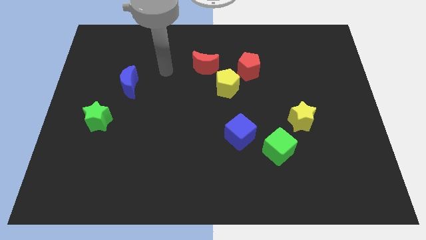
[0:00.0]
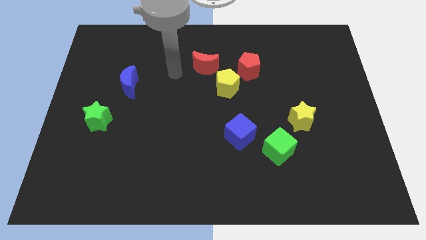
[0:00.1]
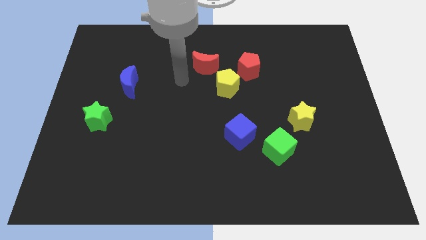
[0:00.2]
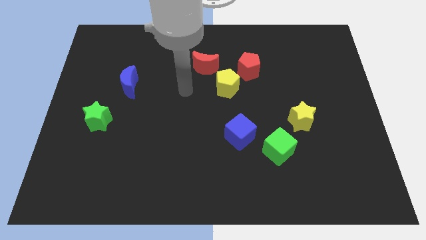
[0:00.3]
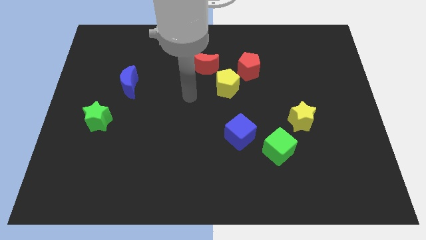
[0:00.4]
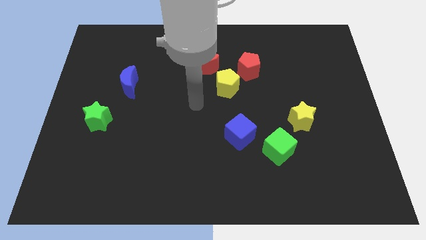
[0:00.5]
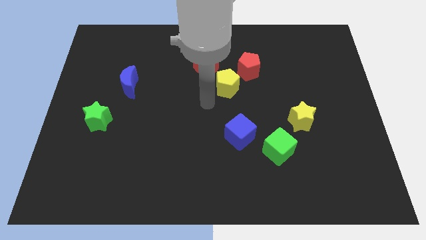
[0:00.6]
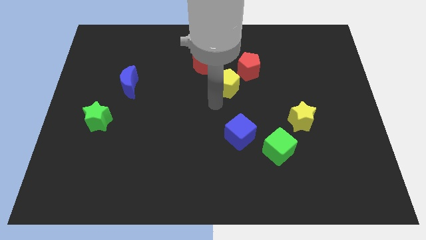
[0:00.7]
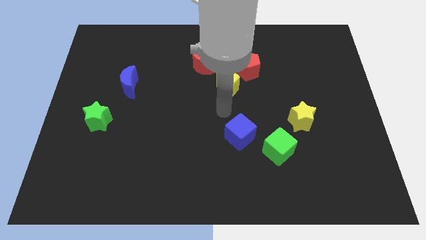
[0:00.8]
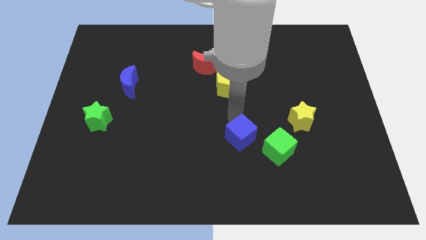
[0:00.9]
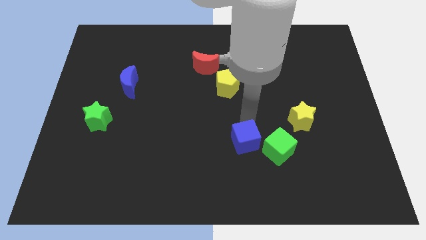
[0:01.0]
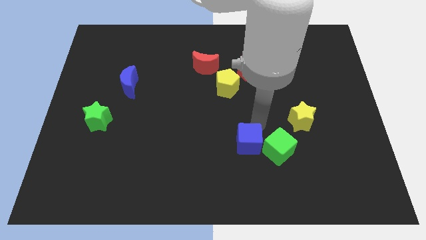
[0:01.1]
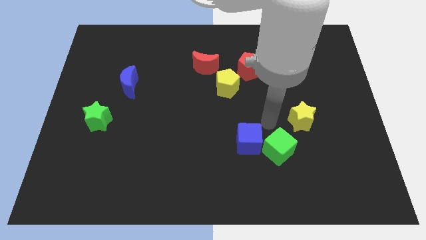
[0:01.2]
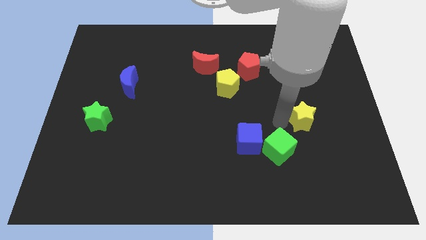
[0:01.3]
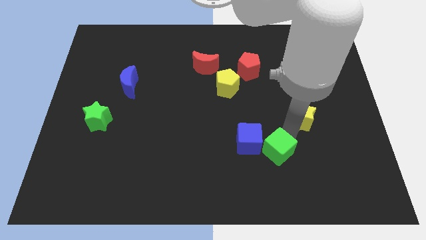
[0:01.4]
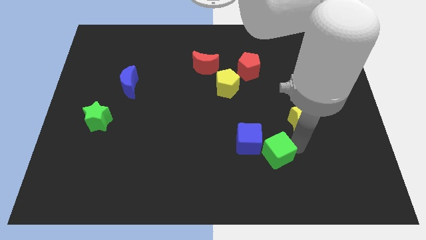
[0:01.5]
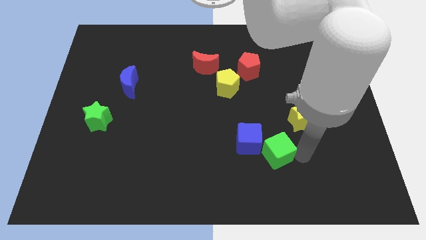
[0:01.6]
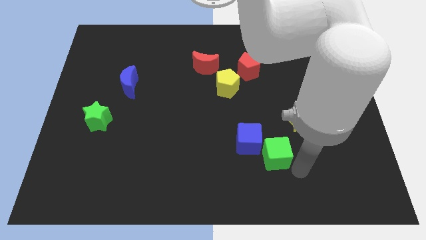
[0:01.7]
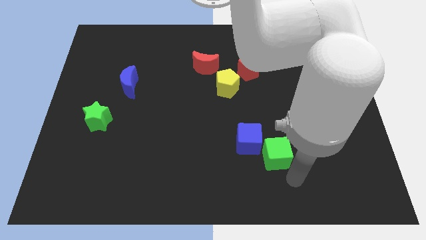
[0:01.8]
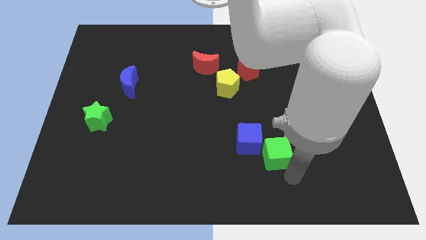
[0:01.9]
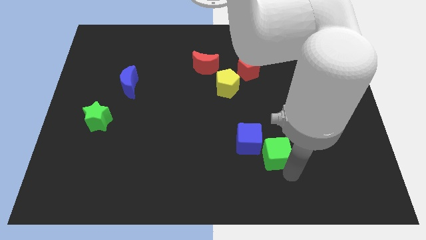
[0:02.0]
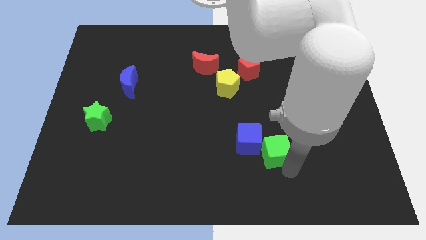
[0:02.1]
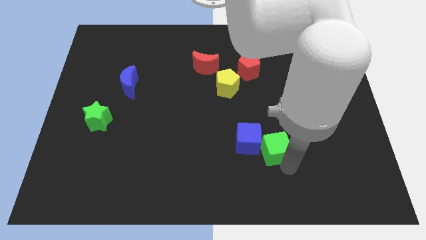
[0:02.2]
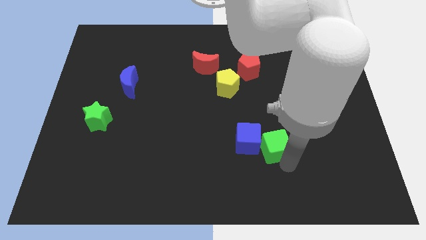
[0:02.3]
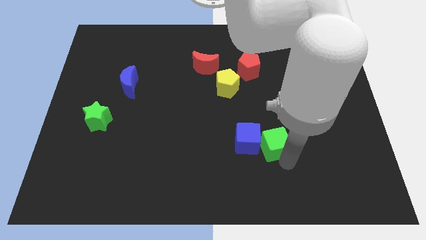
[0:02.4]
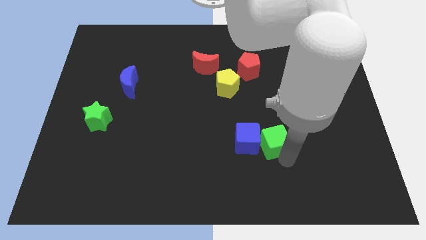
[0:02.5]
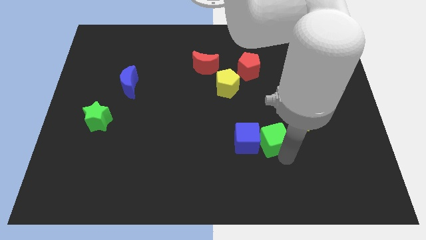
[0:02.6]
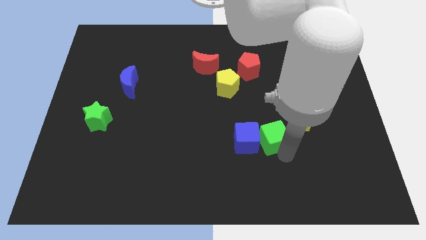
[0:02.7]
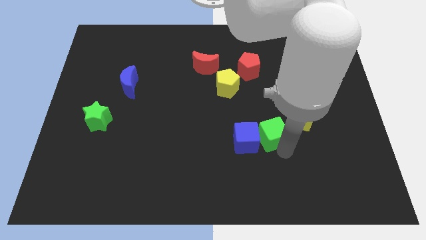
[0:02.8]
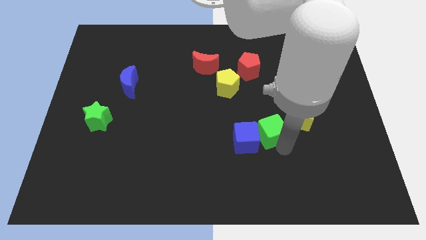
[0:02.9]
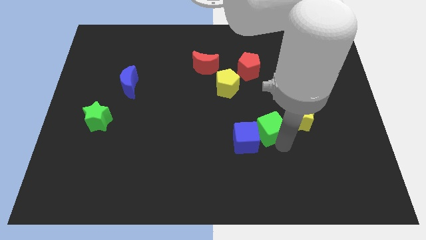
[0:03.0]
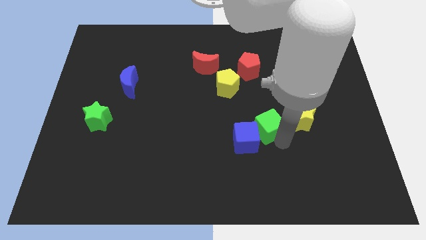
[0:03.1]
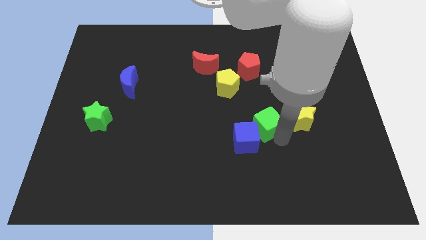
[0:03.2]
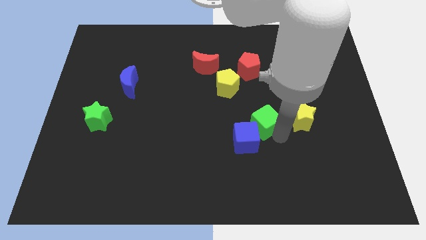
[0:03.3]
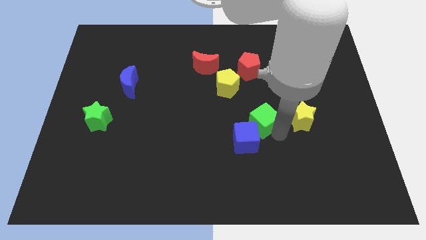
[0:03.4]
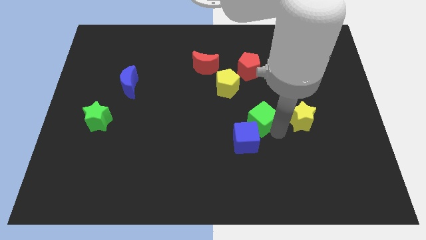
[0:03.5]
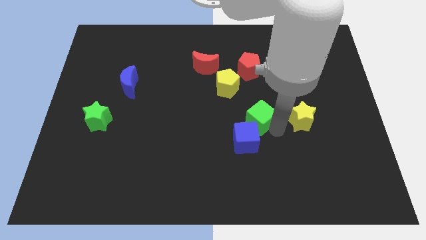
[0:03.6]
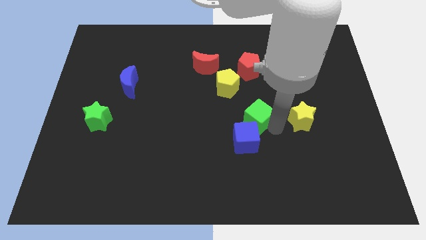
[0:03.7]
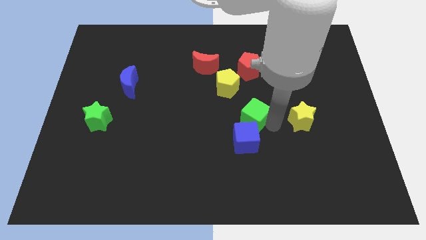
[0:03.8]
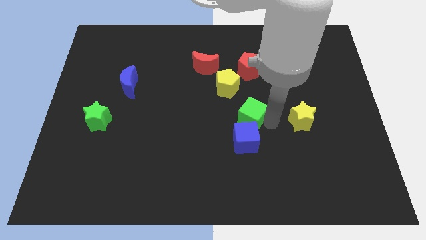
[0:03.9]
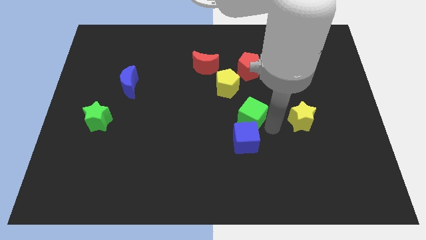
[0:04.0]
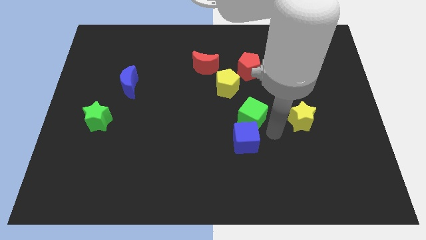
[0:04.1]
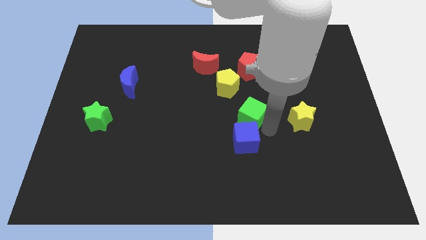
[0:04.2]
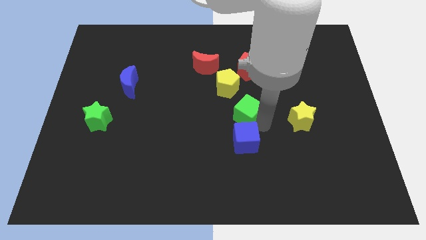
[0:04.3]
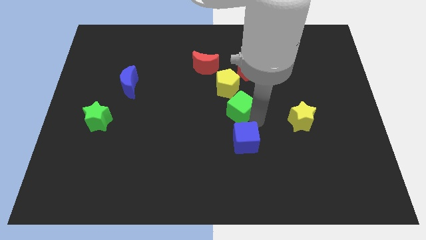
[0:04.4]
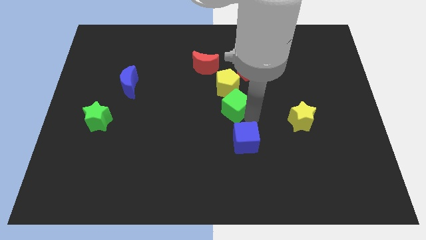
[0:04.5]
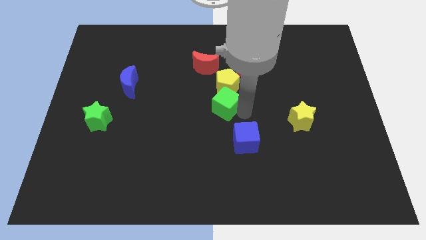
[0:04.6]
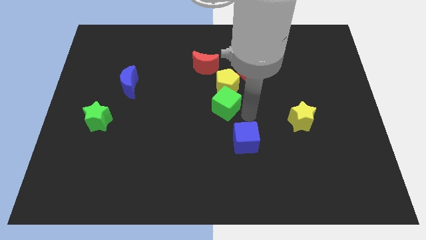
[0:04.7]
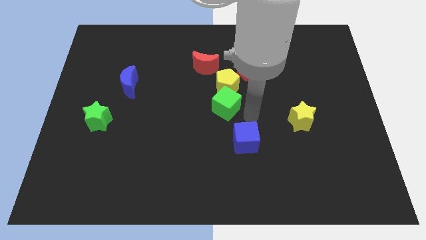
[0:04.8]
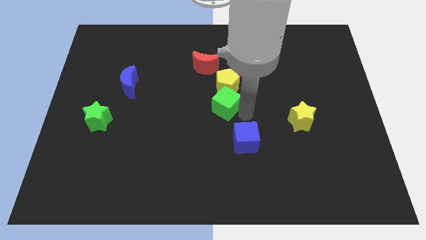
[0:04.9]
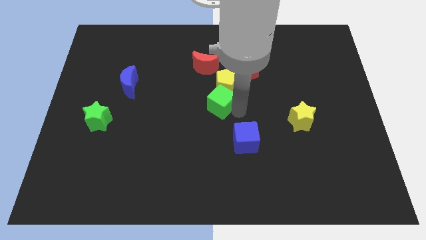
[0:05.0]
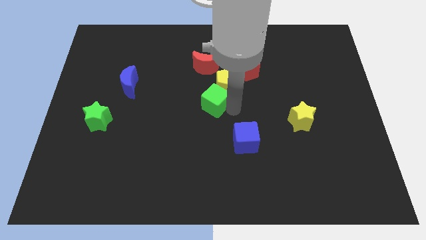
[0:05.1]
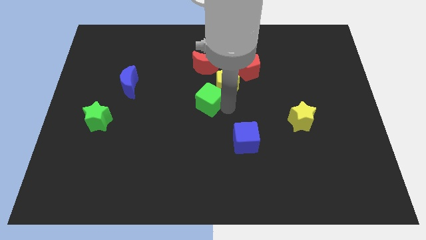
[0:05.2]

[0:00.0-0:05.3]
slide the green cube diagonally upwards and to the left

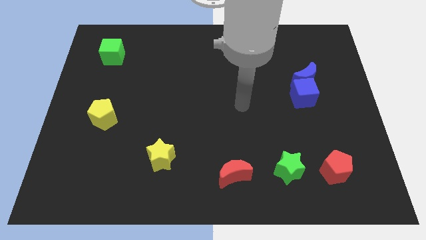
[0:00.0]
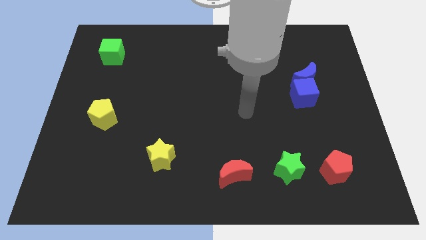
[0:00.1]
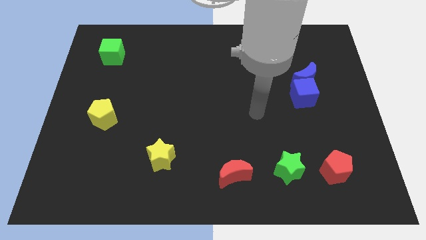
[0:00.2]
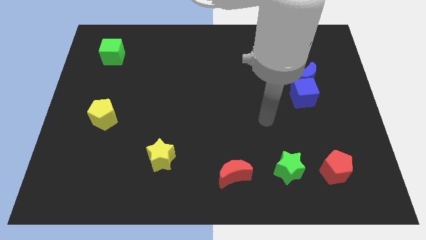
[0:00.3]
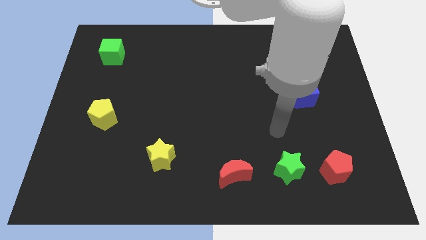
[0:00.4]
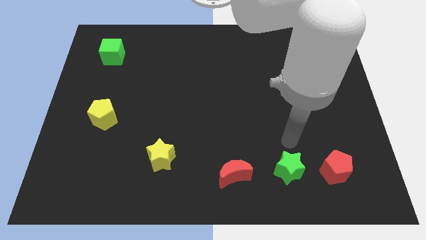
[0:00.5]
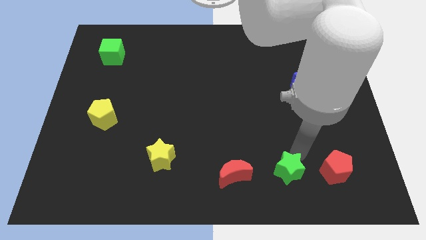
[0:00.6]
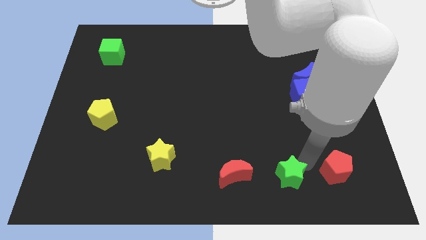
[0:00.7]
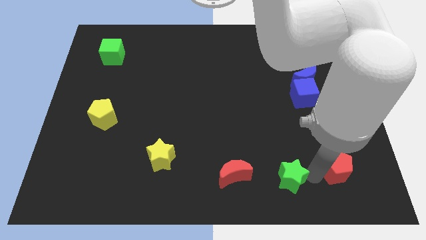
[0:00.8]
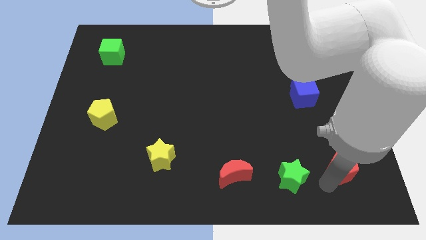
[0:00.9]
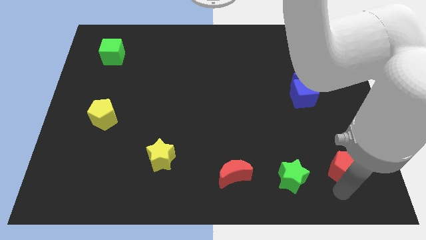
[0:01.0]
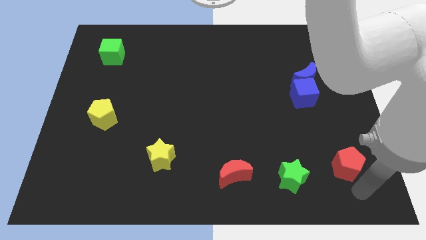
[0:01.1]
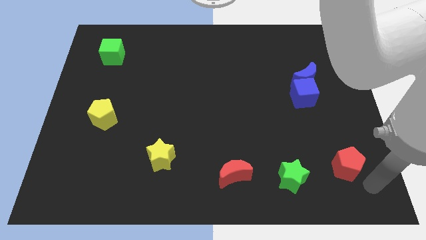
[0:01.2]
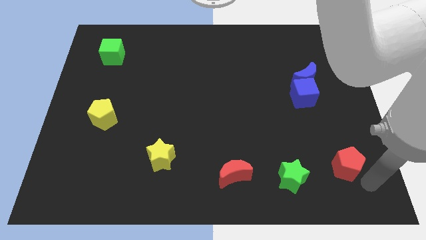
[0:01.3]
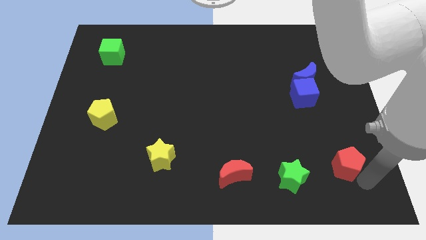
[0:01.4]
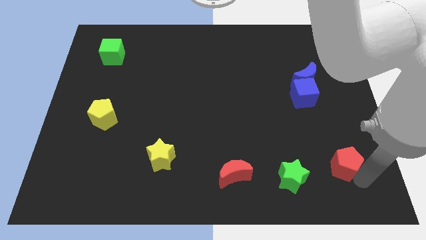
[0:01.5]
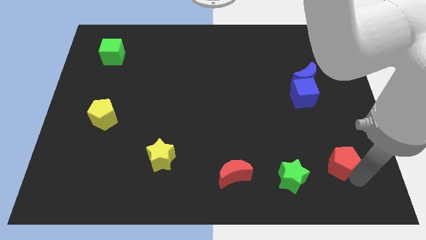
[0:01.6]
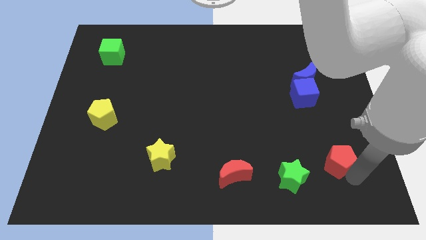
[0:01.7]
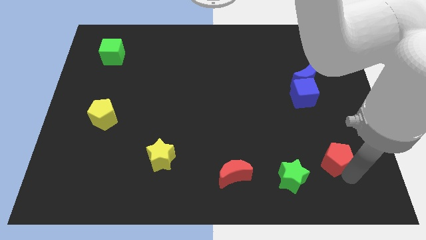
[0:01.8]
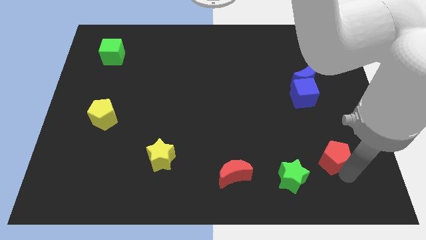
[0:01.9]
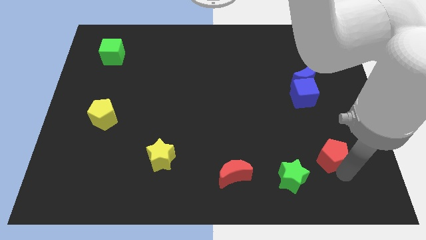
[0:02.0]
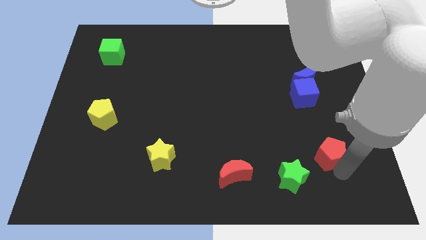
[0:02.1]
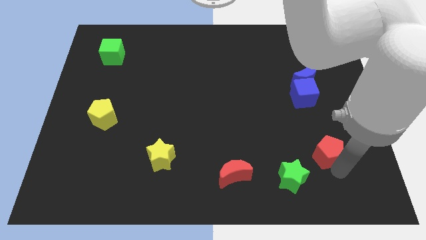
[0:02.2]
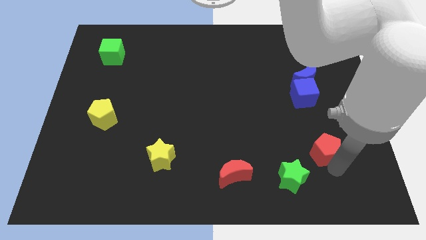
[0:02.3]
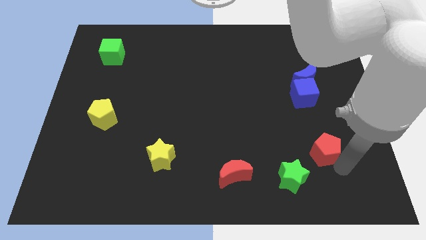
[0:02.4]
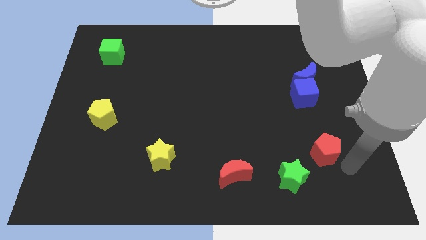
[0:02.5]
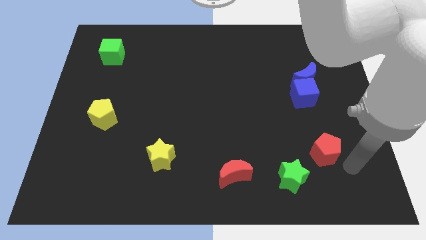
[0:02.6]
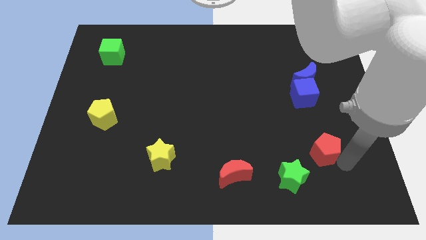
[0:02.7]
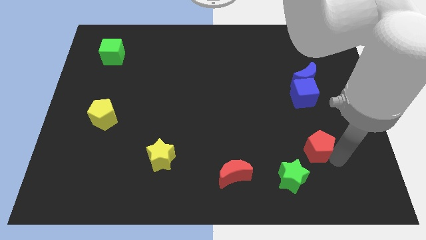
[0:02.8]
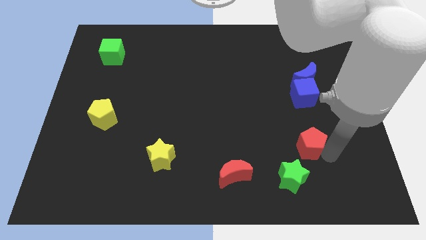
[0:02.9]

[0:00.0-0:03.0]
slide the red pentagon slightly up and left

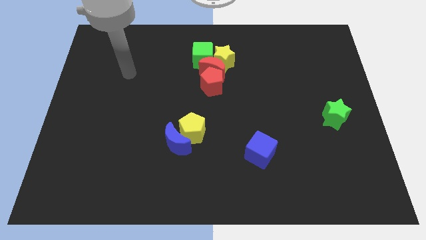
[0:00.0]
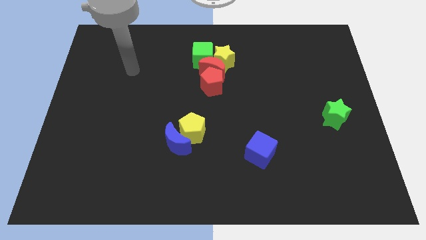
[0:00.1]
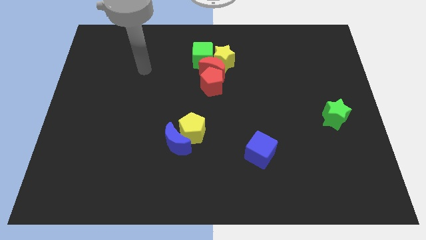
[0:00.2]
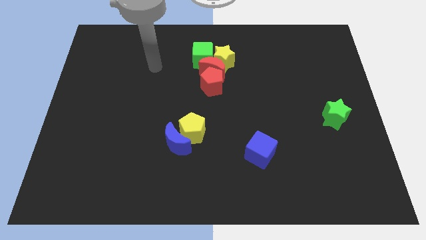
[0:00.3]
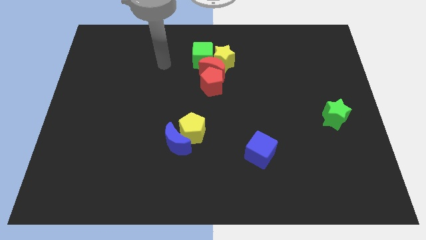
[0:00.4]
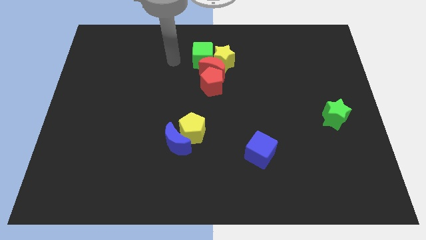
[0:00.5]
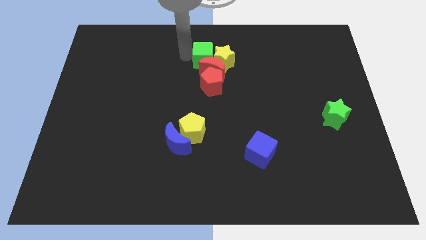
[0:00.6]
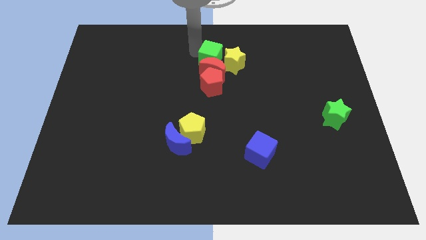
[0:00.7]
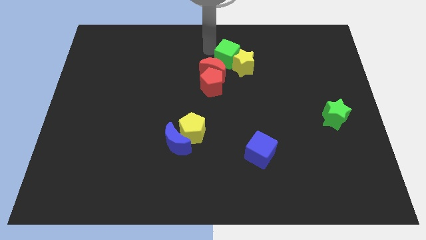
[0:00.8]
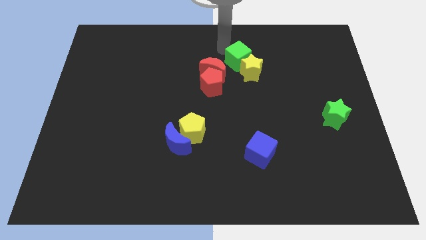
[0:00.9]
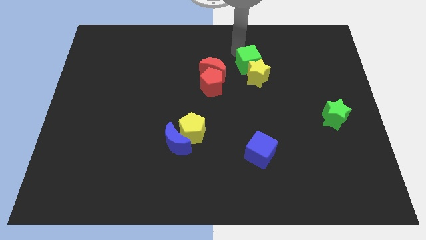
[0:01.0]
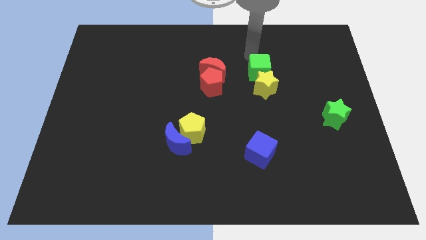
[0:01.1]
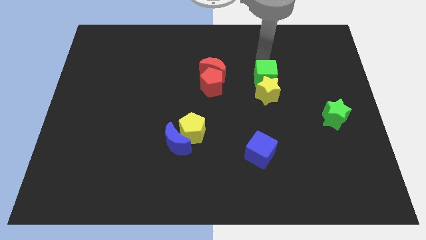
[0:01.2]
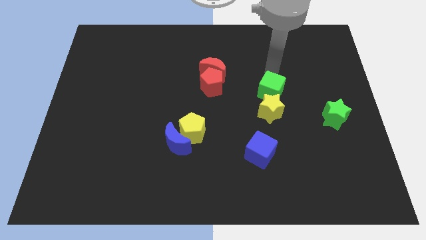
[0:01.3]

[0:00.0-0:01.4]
slightly slide the yellow star down
